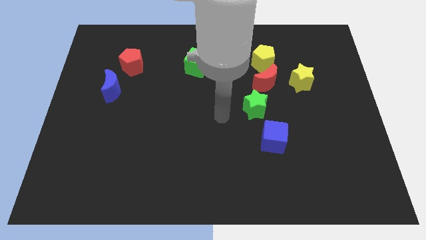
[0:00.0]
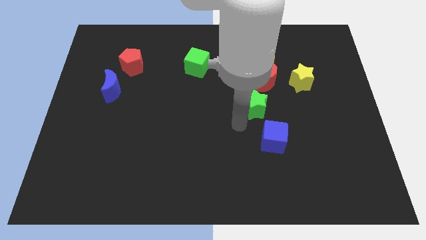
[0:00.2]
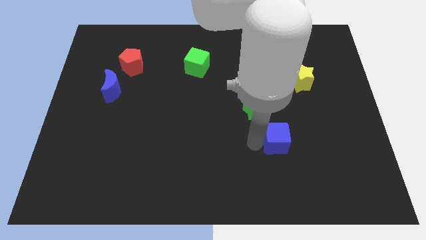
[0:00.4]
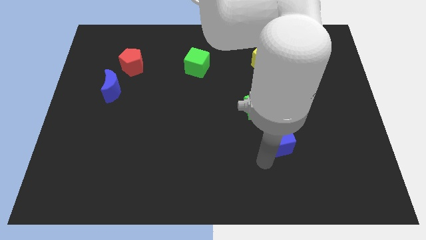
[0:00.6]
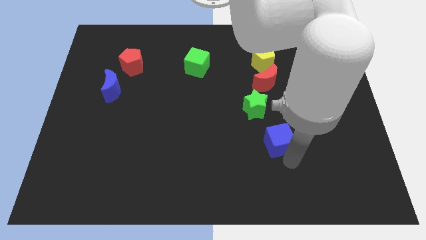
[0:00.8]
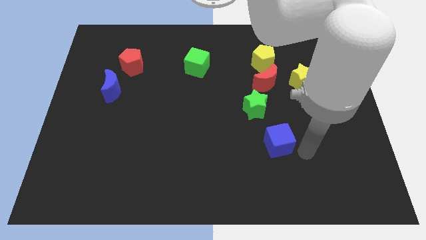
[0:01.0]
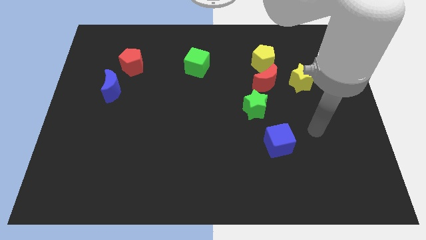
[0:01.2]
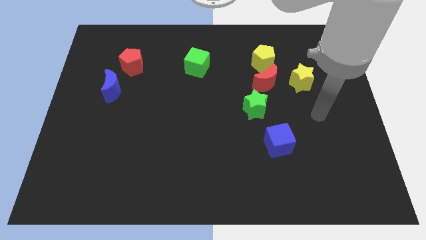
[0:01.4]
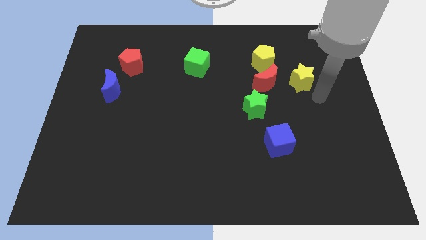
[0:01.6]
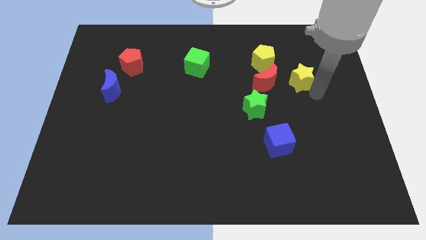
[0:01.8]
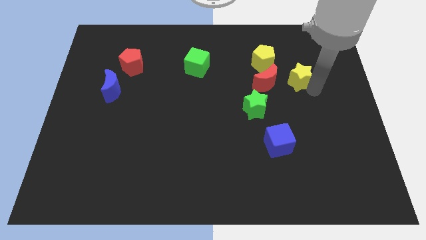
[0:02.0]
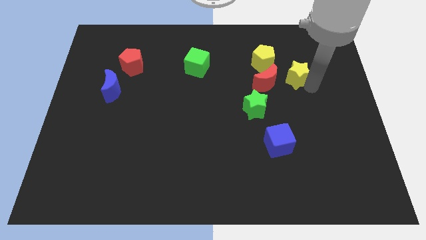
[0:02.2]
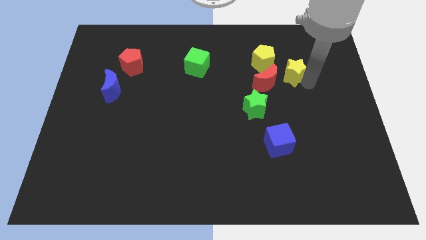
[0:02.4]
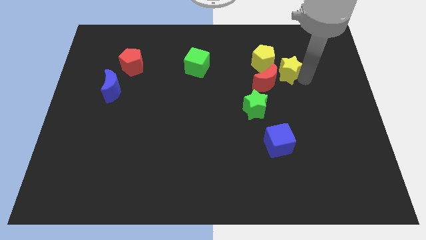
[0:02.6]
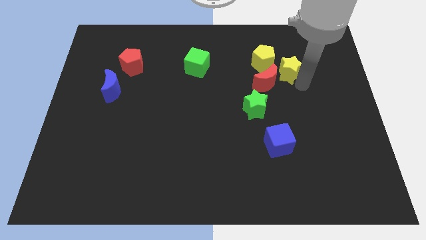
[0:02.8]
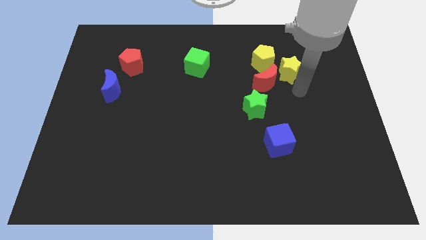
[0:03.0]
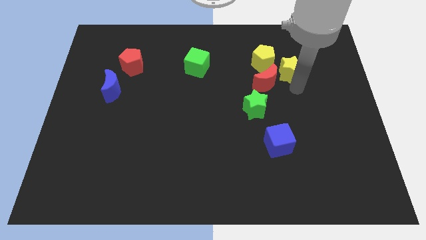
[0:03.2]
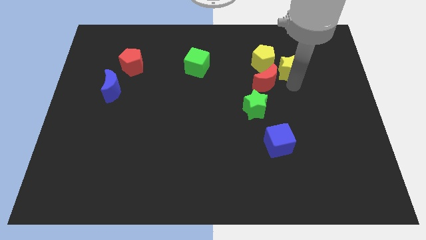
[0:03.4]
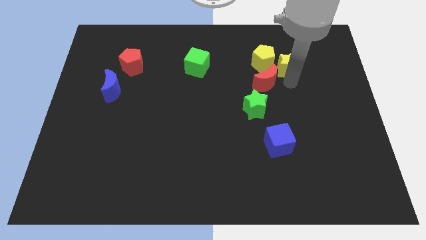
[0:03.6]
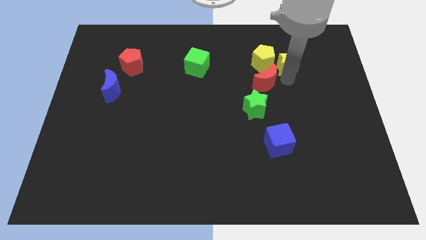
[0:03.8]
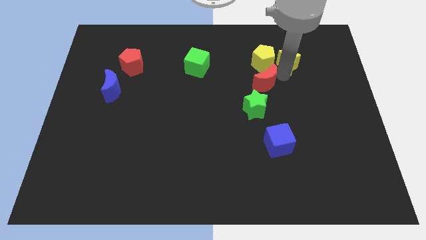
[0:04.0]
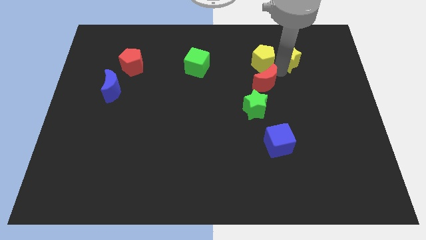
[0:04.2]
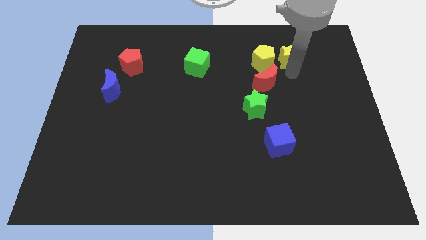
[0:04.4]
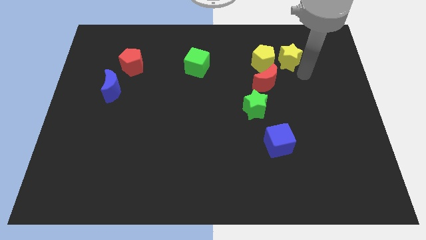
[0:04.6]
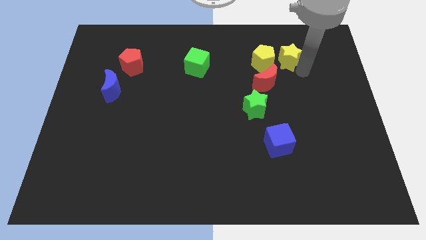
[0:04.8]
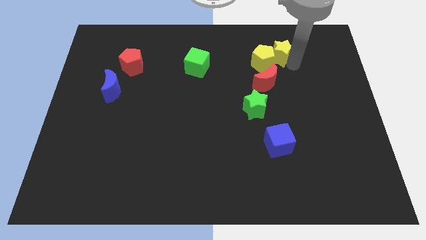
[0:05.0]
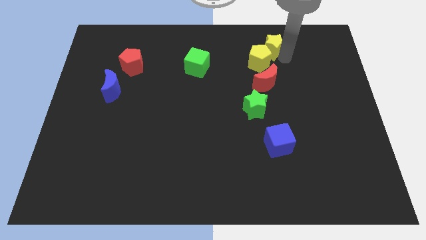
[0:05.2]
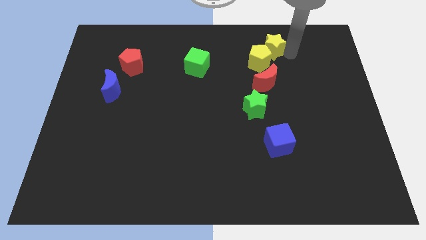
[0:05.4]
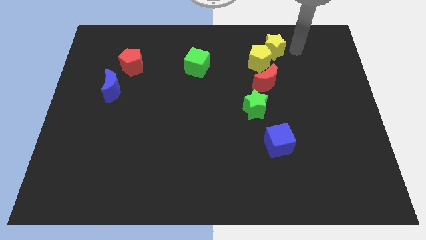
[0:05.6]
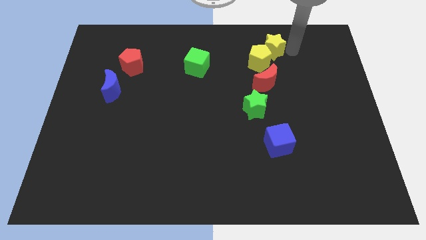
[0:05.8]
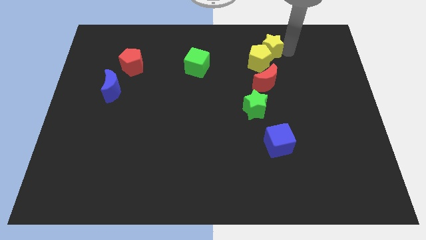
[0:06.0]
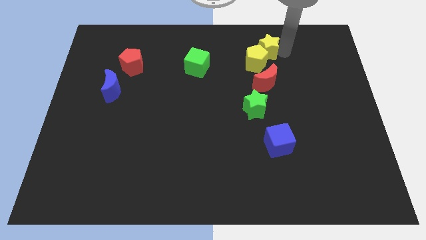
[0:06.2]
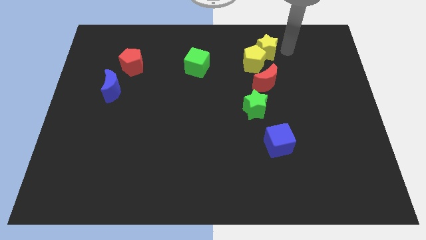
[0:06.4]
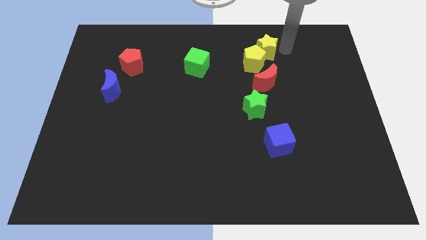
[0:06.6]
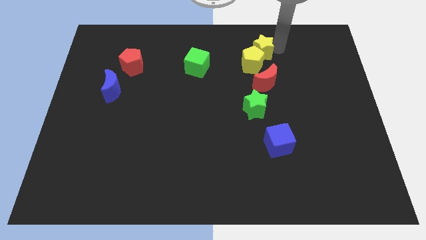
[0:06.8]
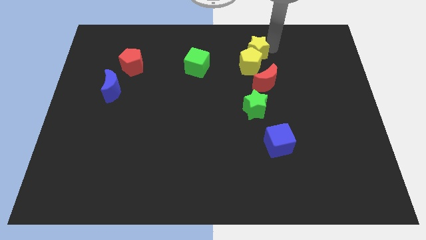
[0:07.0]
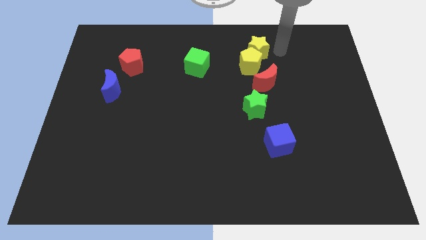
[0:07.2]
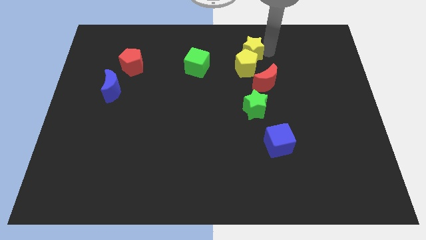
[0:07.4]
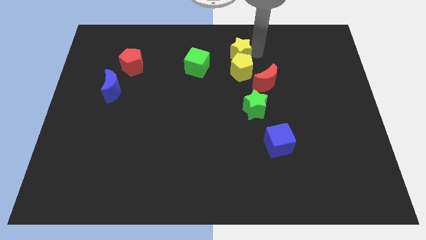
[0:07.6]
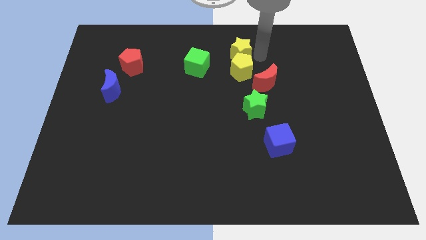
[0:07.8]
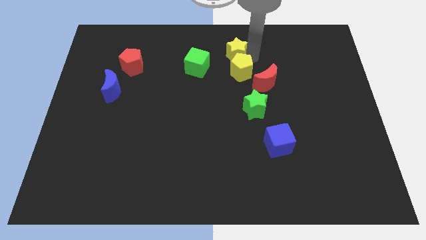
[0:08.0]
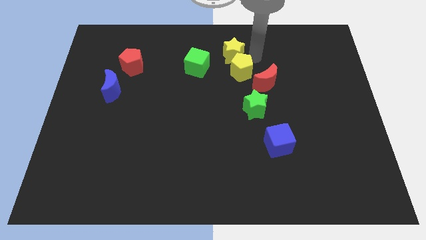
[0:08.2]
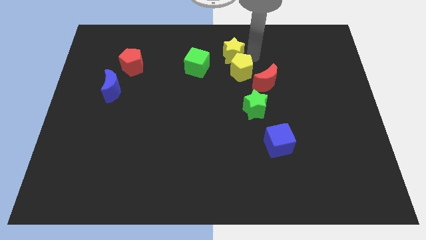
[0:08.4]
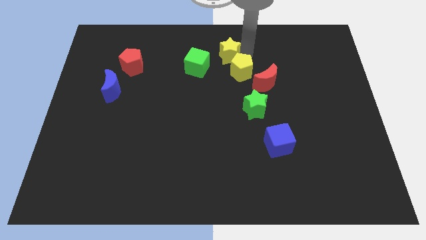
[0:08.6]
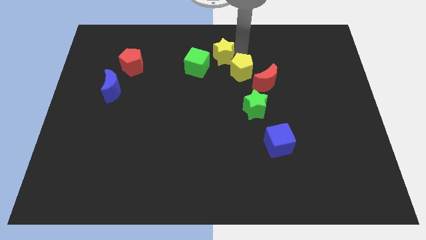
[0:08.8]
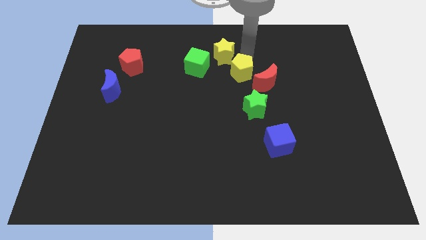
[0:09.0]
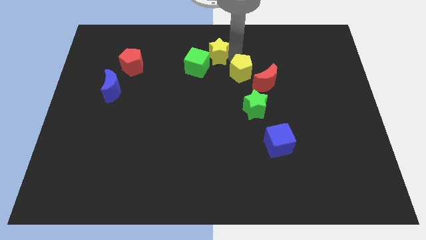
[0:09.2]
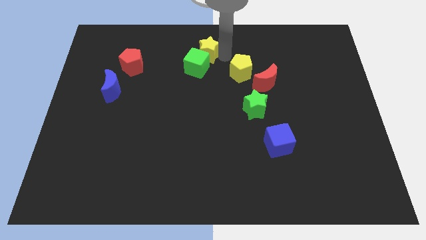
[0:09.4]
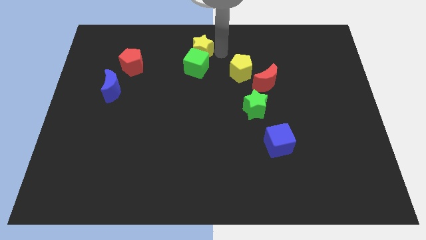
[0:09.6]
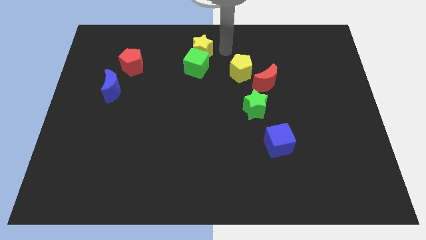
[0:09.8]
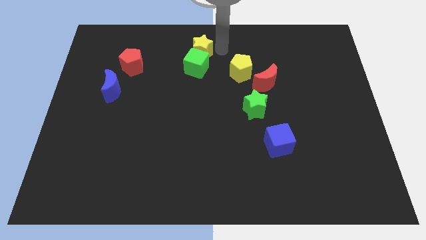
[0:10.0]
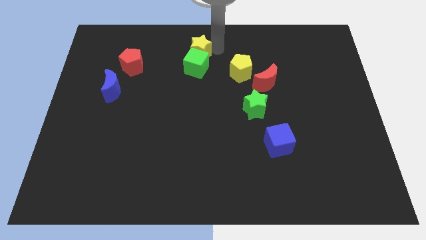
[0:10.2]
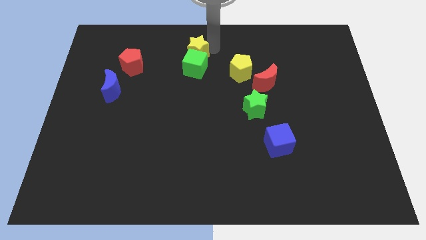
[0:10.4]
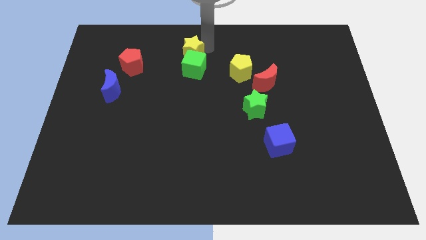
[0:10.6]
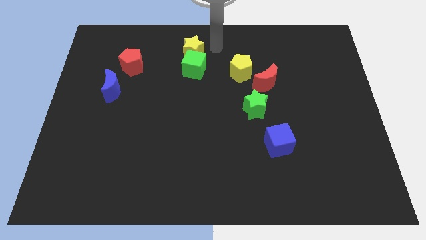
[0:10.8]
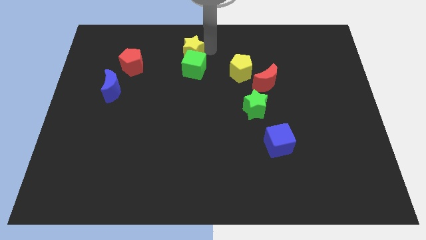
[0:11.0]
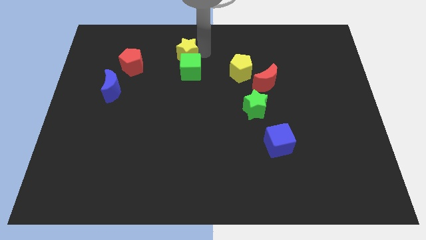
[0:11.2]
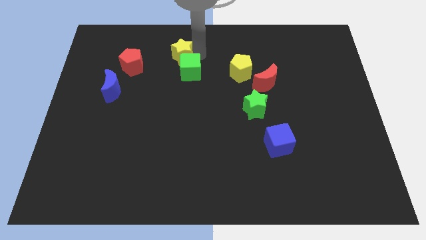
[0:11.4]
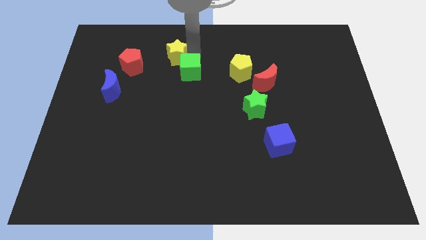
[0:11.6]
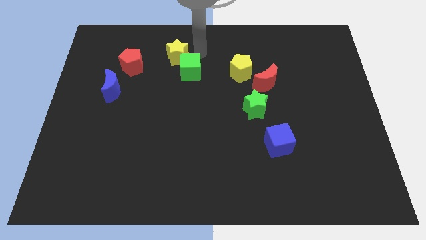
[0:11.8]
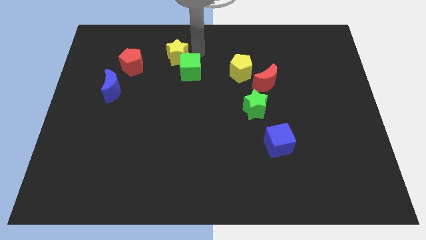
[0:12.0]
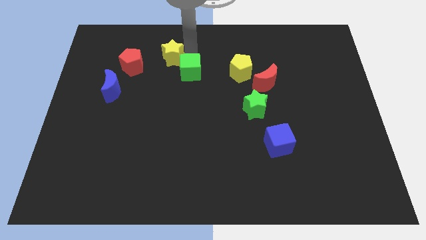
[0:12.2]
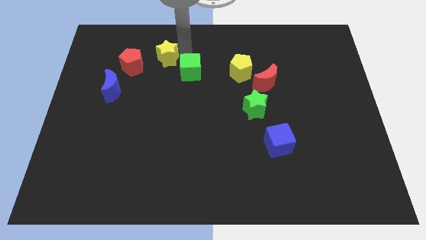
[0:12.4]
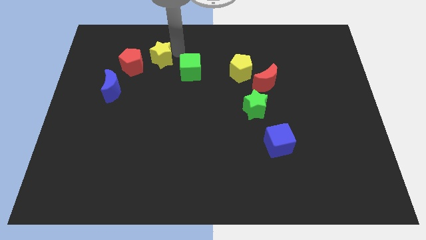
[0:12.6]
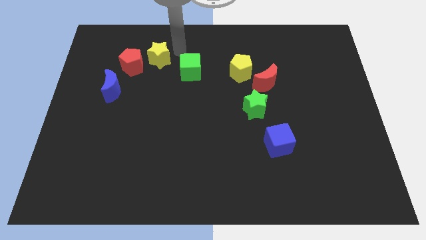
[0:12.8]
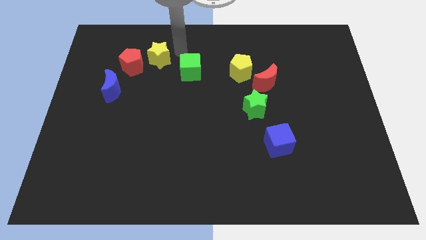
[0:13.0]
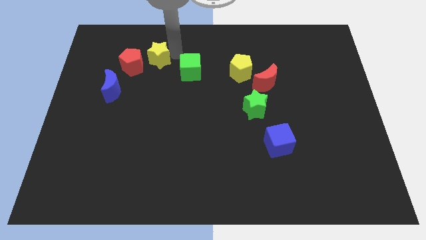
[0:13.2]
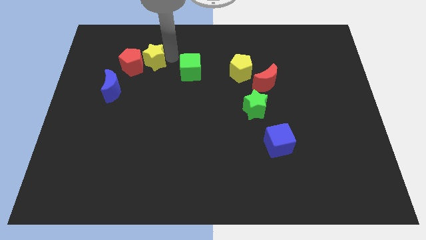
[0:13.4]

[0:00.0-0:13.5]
move the yellow star next to the red pentagon
